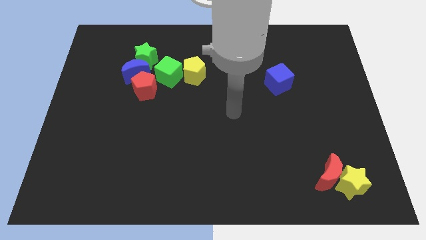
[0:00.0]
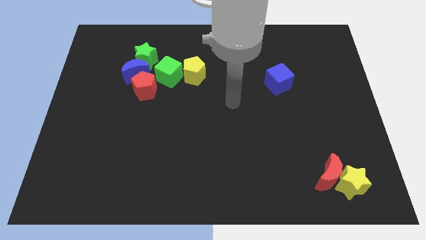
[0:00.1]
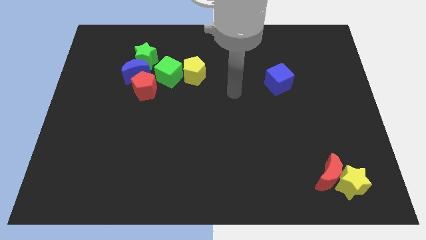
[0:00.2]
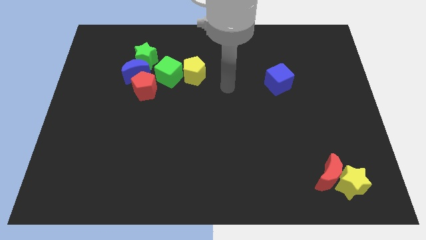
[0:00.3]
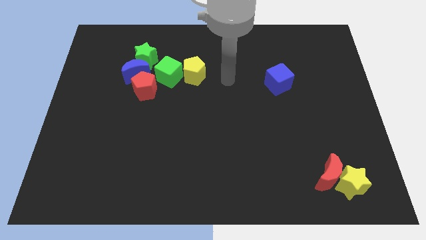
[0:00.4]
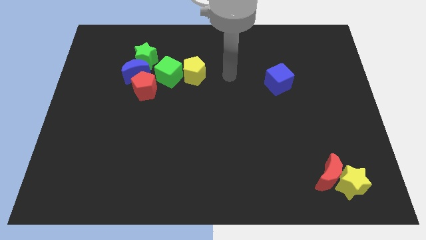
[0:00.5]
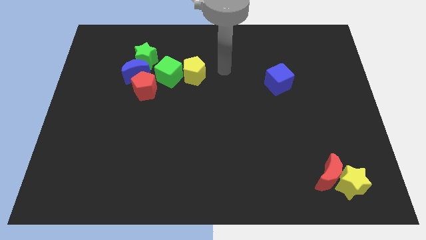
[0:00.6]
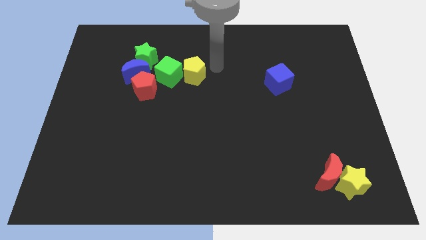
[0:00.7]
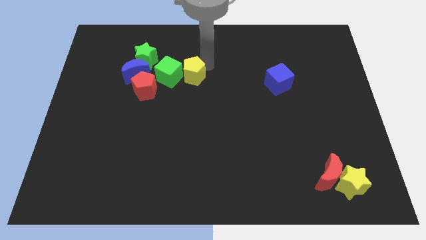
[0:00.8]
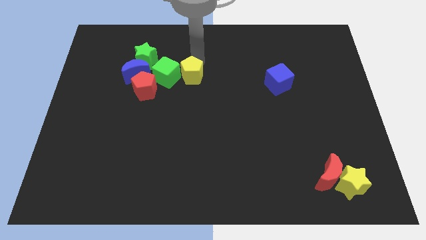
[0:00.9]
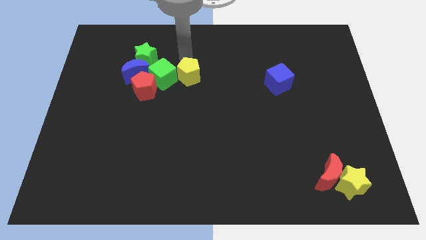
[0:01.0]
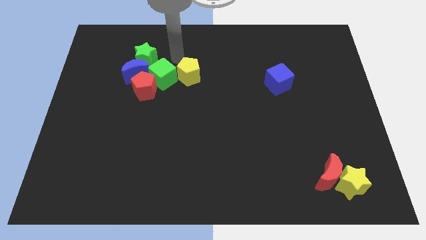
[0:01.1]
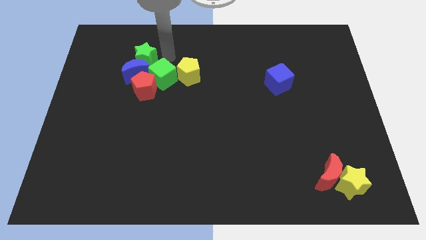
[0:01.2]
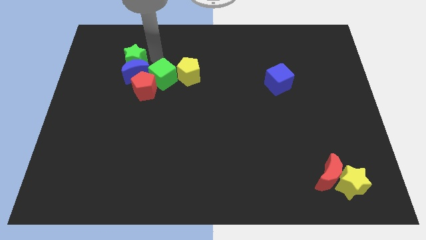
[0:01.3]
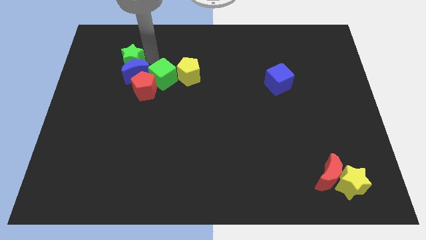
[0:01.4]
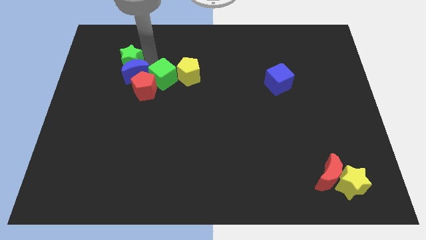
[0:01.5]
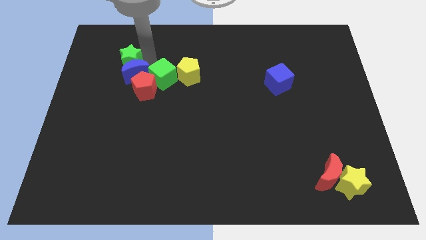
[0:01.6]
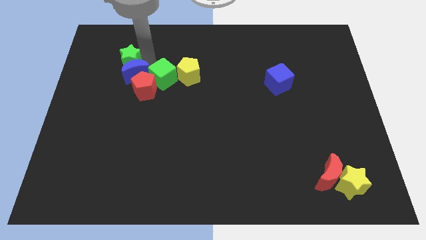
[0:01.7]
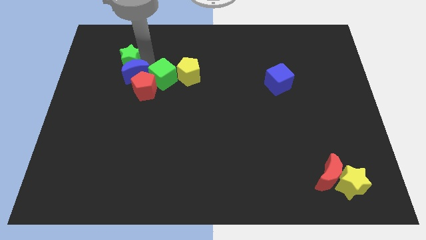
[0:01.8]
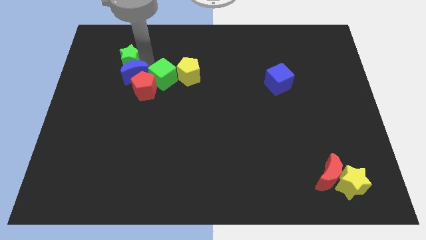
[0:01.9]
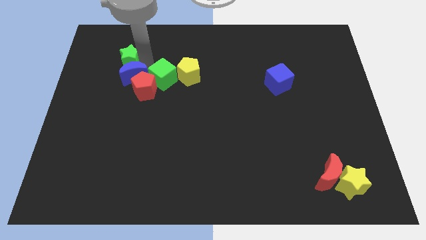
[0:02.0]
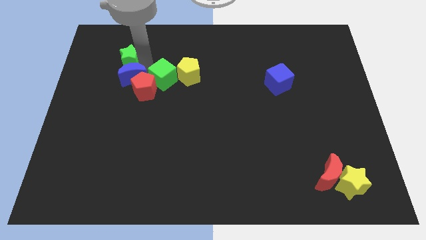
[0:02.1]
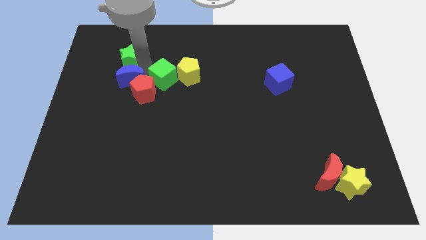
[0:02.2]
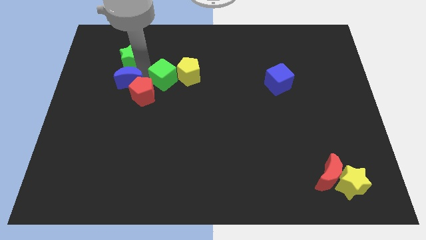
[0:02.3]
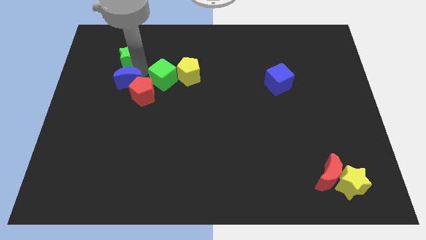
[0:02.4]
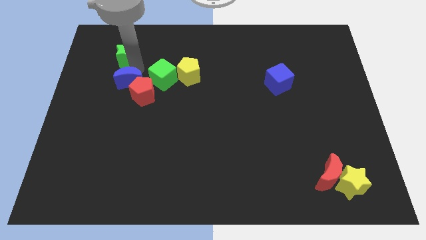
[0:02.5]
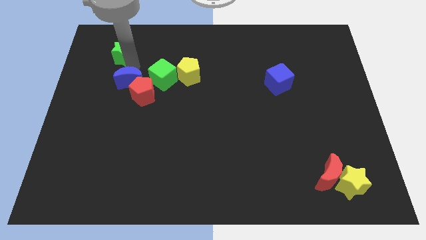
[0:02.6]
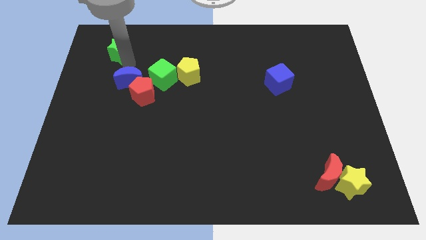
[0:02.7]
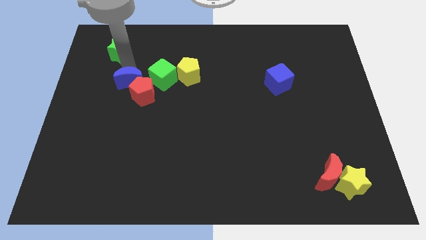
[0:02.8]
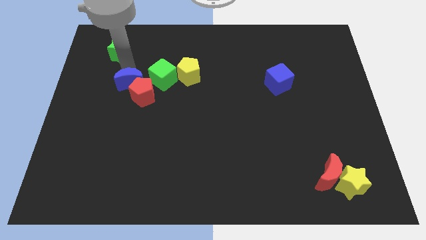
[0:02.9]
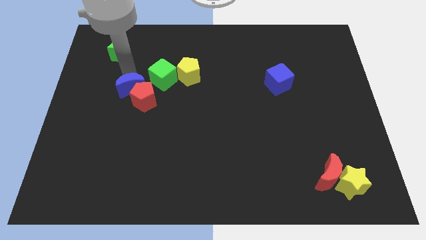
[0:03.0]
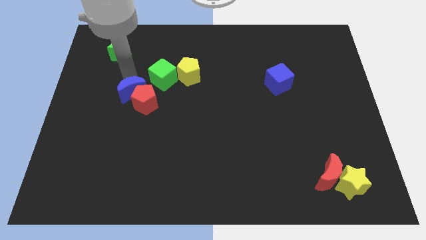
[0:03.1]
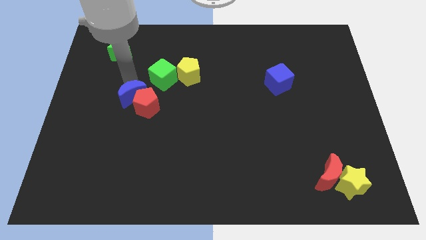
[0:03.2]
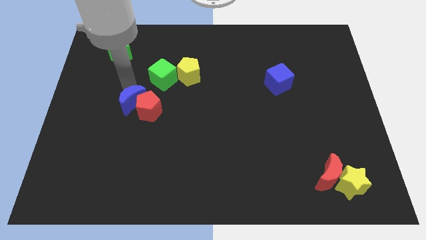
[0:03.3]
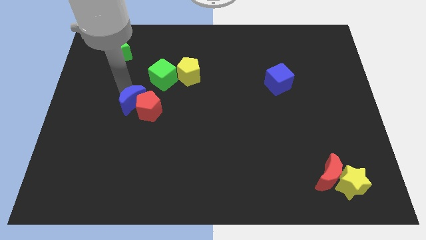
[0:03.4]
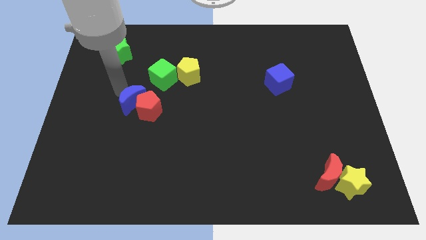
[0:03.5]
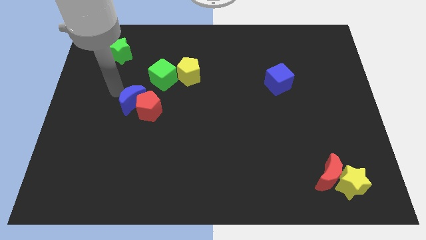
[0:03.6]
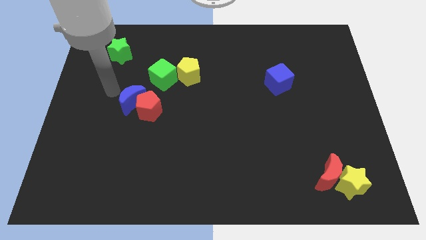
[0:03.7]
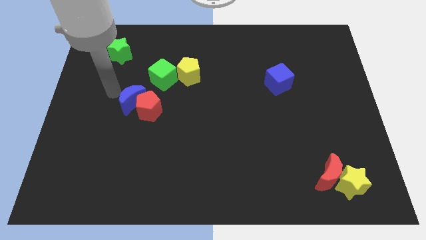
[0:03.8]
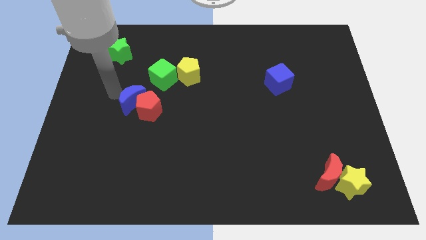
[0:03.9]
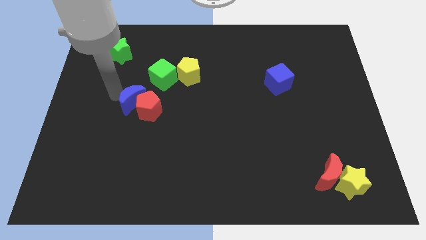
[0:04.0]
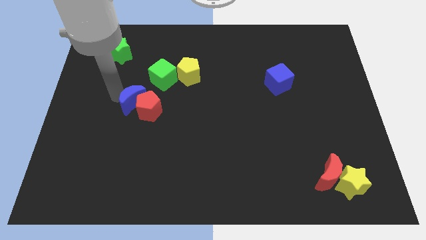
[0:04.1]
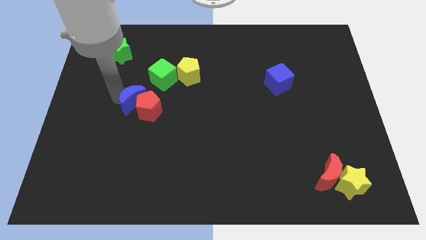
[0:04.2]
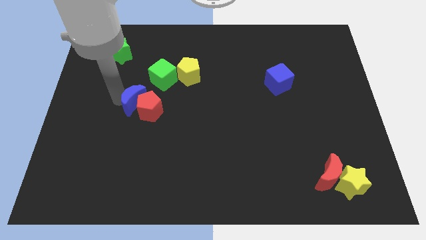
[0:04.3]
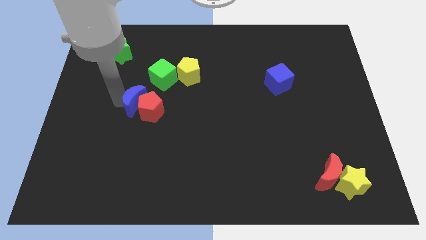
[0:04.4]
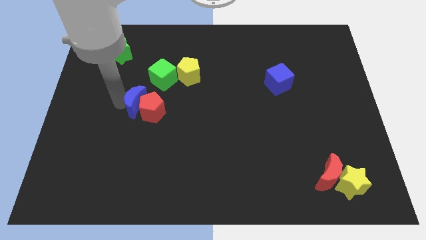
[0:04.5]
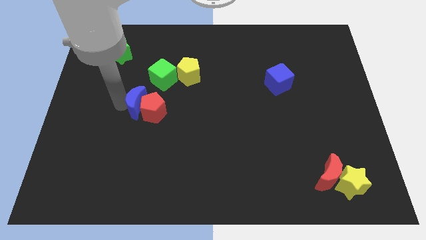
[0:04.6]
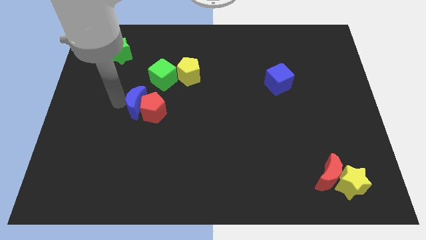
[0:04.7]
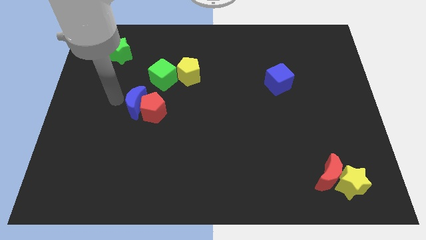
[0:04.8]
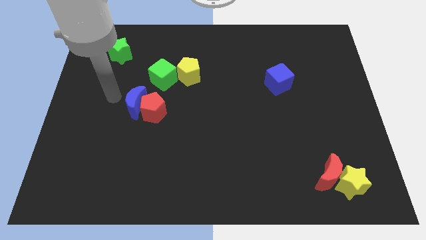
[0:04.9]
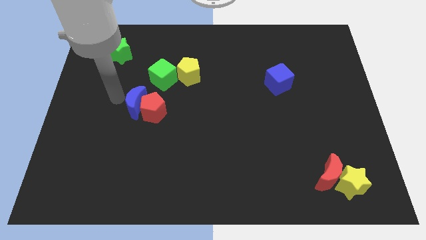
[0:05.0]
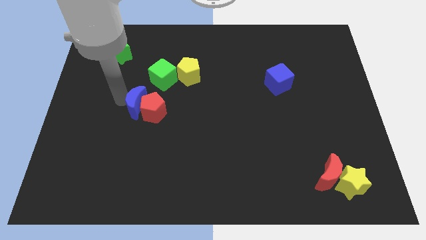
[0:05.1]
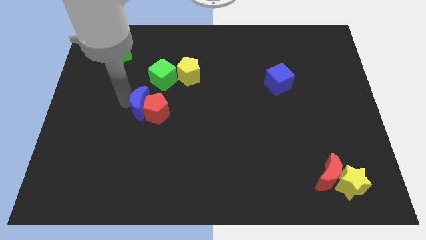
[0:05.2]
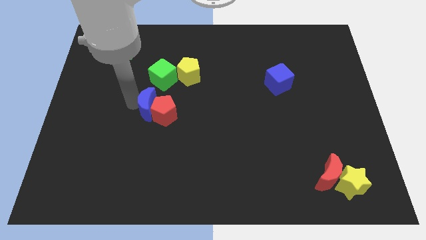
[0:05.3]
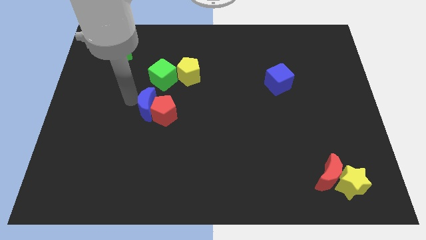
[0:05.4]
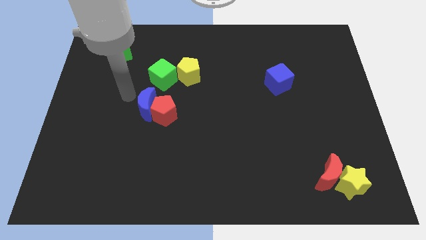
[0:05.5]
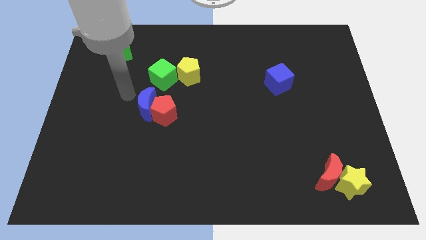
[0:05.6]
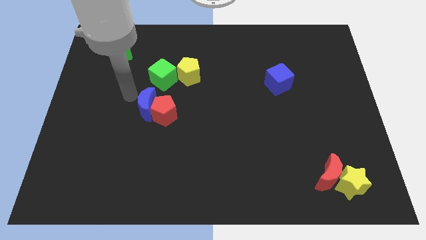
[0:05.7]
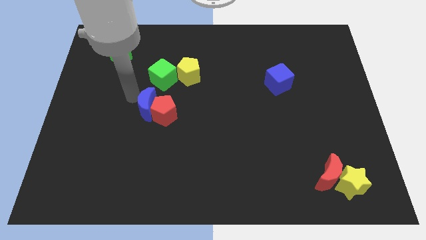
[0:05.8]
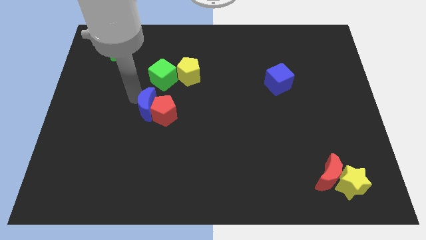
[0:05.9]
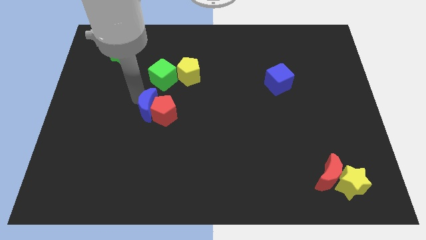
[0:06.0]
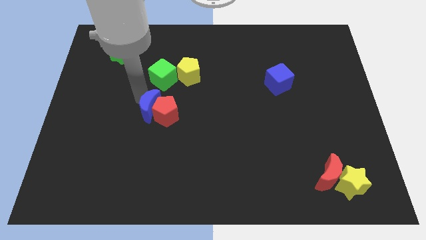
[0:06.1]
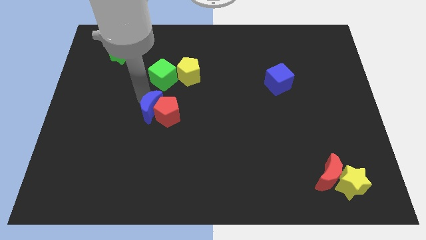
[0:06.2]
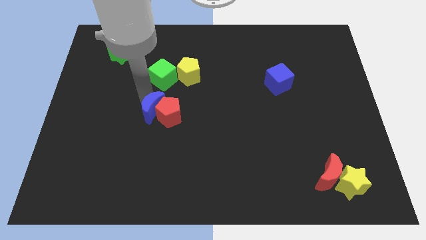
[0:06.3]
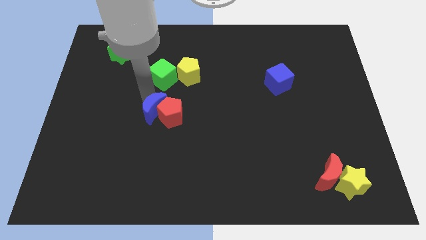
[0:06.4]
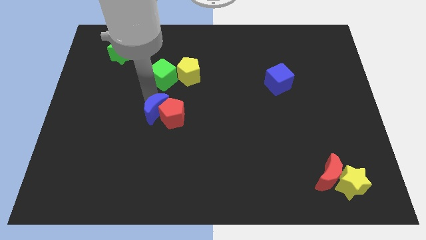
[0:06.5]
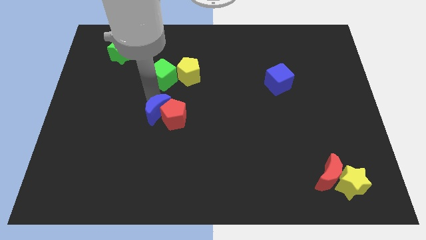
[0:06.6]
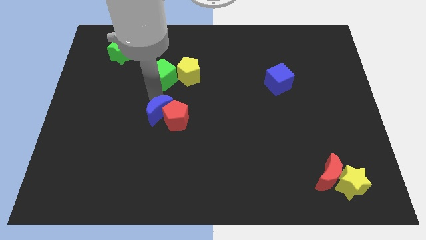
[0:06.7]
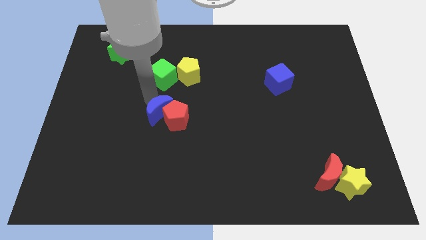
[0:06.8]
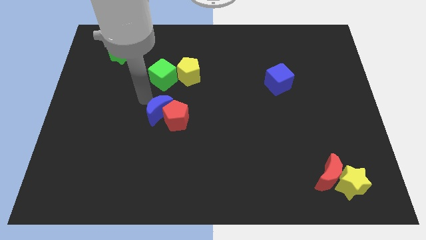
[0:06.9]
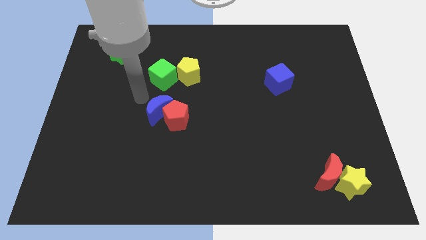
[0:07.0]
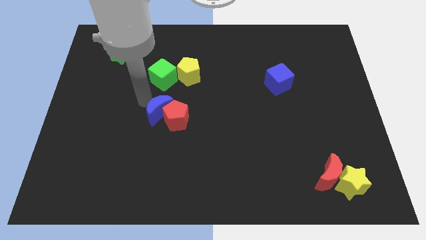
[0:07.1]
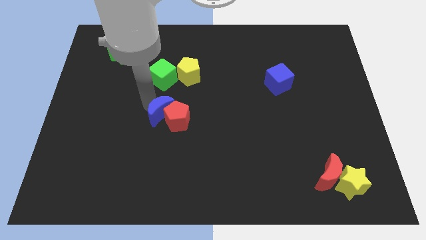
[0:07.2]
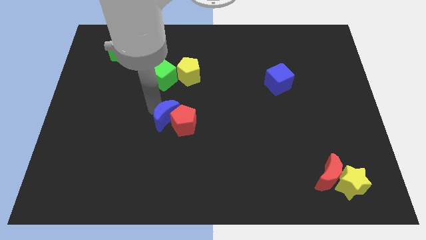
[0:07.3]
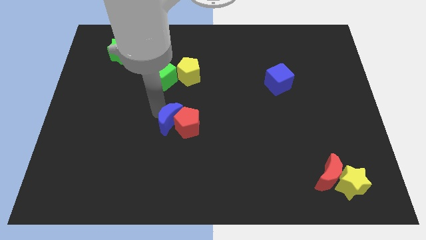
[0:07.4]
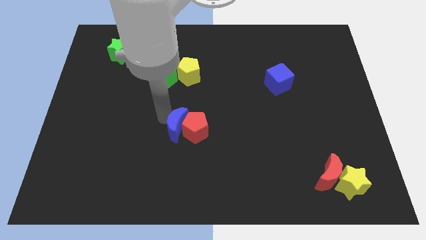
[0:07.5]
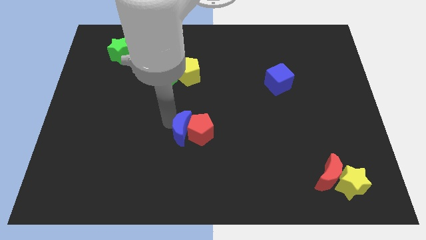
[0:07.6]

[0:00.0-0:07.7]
slide the blue moon downwards and then to the right

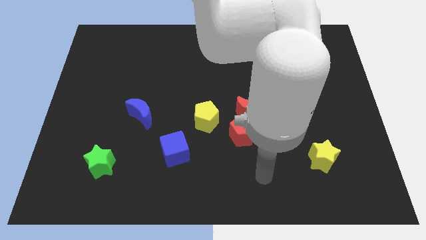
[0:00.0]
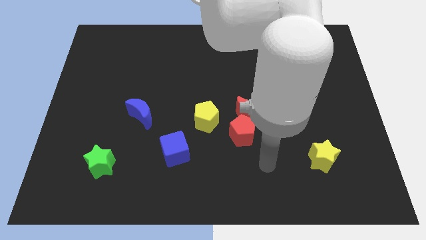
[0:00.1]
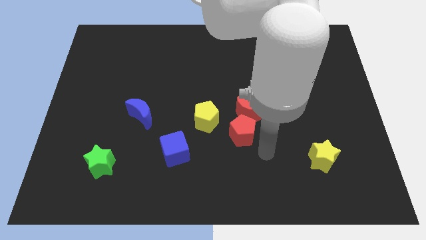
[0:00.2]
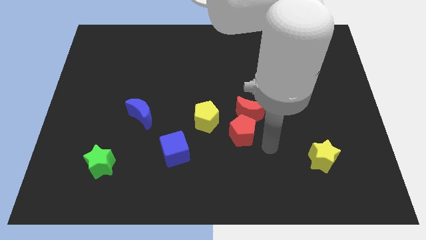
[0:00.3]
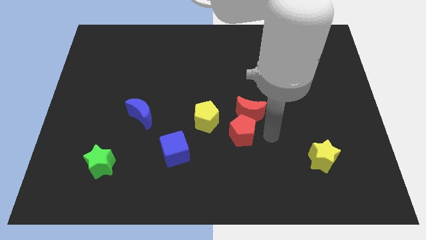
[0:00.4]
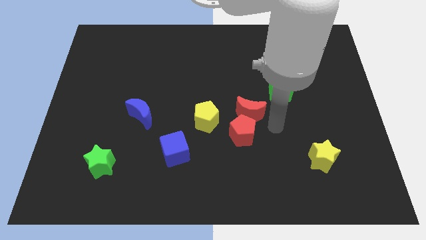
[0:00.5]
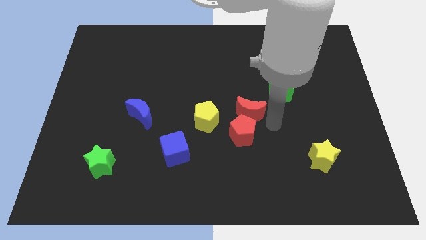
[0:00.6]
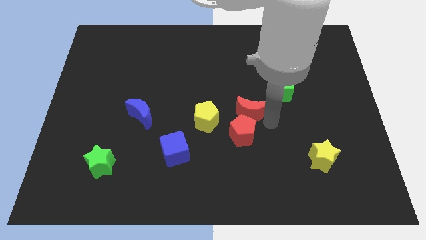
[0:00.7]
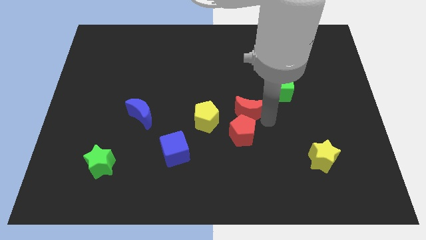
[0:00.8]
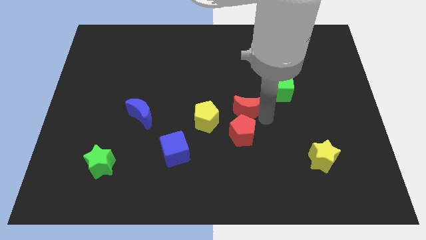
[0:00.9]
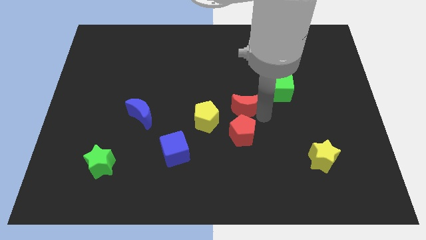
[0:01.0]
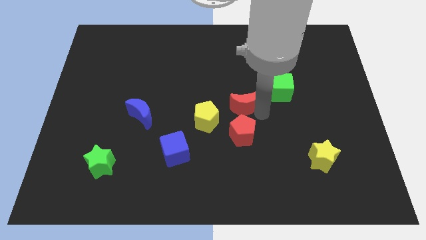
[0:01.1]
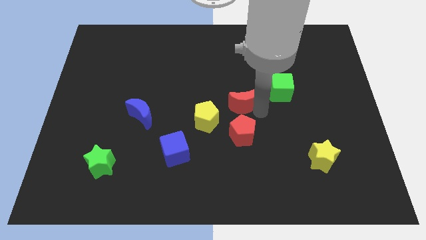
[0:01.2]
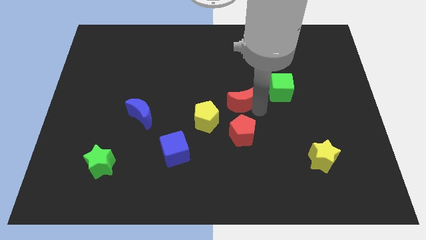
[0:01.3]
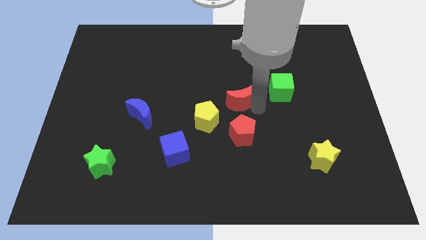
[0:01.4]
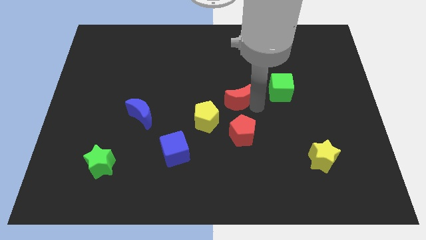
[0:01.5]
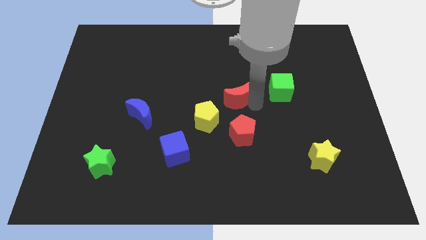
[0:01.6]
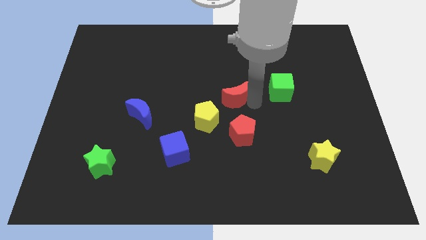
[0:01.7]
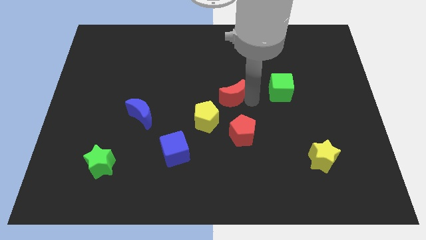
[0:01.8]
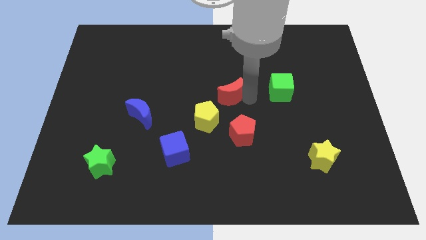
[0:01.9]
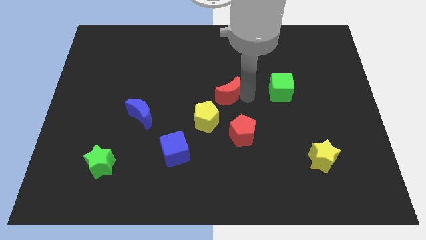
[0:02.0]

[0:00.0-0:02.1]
push the red moon up and then left a bit
